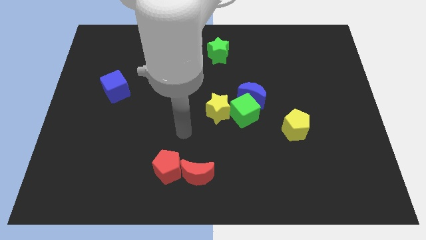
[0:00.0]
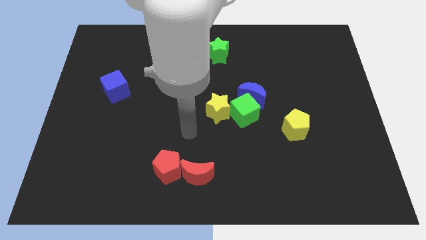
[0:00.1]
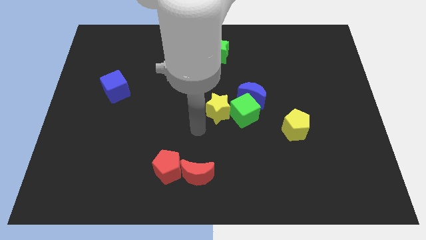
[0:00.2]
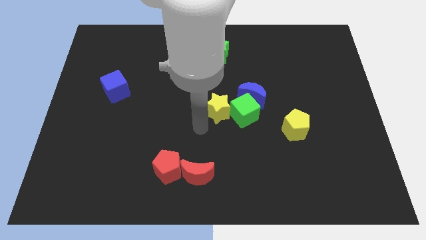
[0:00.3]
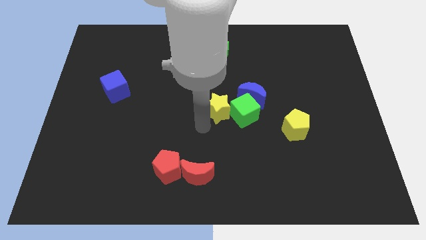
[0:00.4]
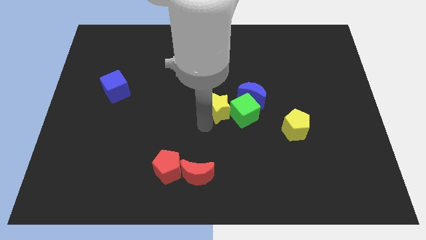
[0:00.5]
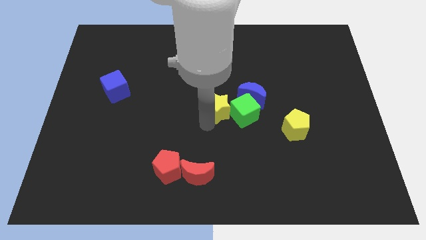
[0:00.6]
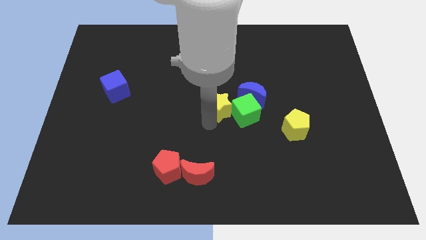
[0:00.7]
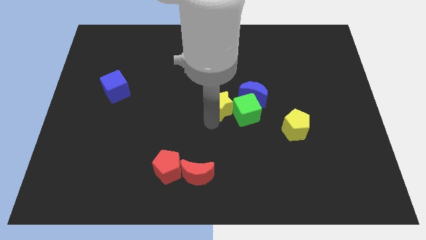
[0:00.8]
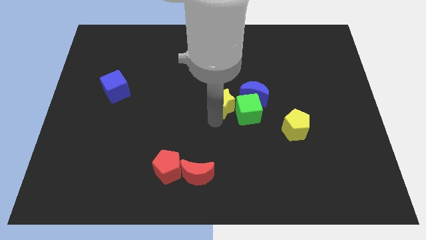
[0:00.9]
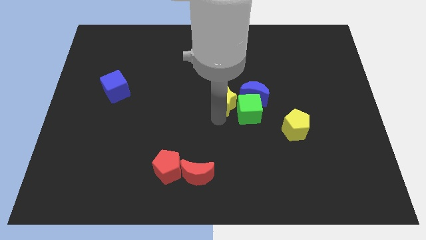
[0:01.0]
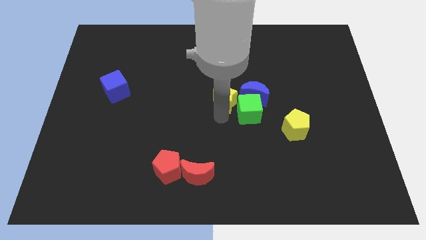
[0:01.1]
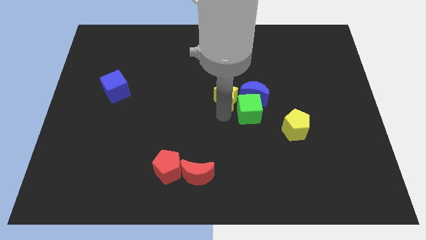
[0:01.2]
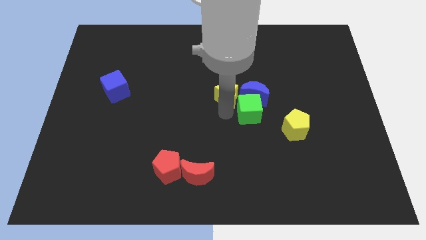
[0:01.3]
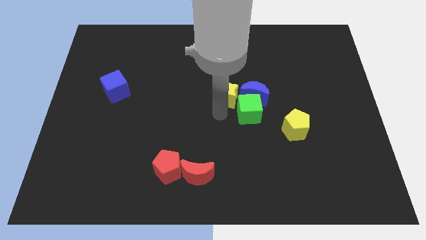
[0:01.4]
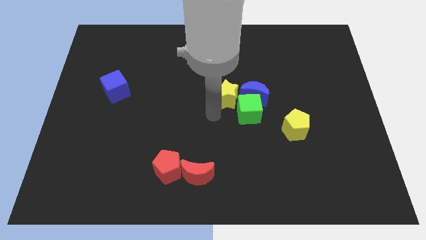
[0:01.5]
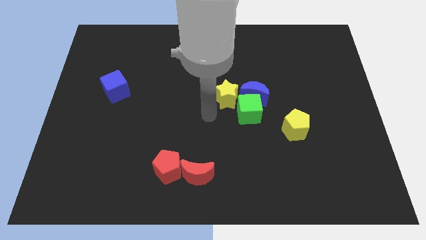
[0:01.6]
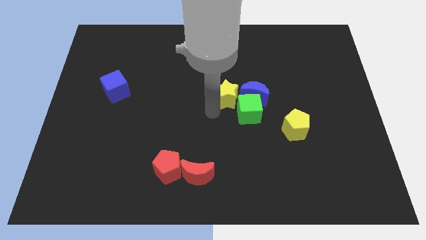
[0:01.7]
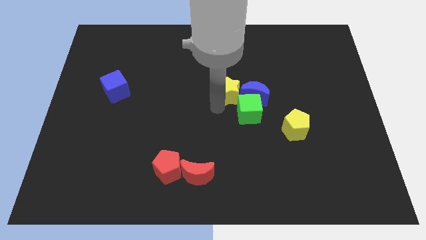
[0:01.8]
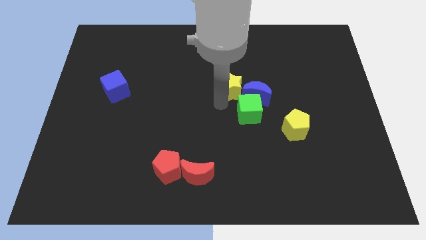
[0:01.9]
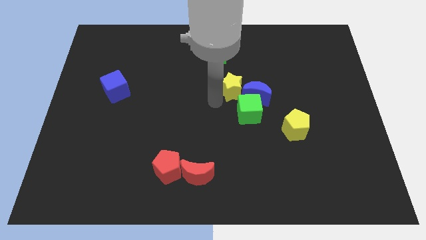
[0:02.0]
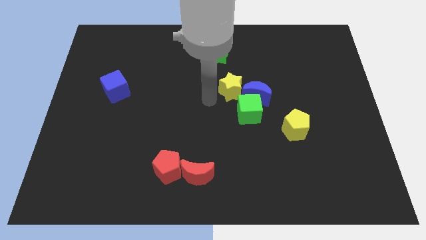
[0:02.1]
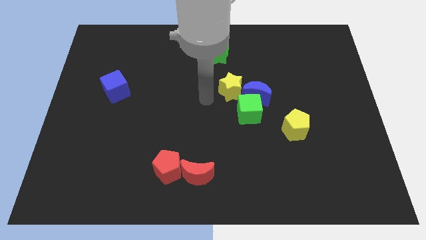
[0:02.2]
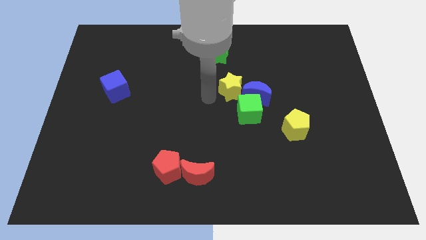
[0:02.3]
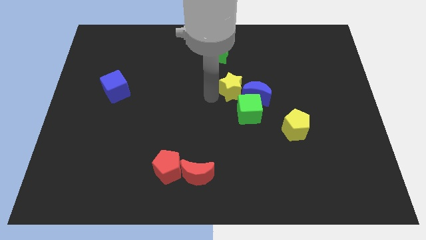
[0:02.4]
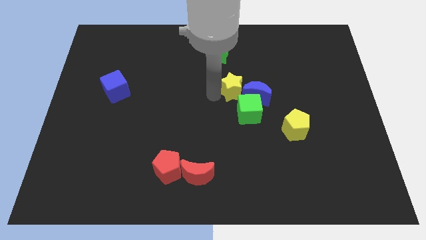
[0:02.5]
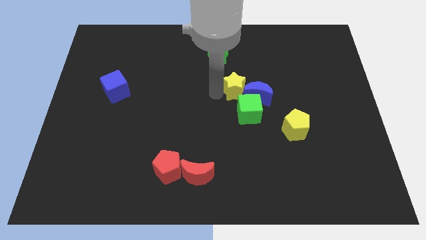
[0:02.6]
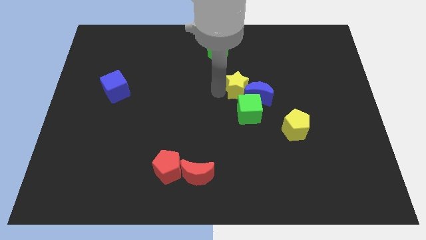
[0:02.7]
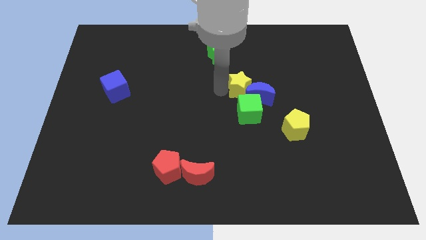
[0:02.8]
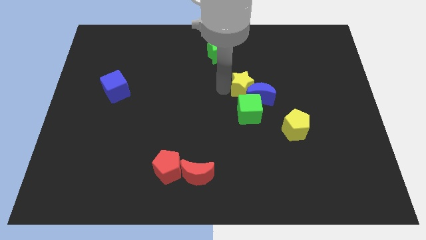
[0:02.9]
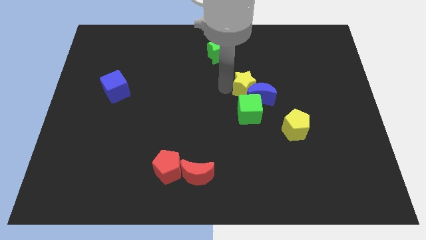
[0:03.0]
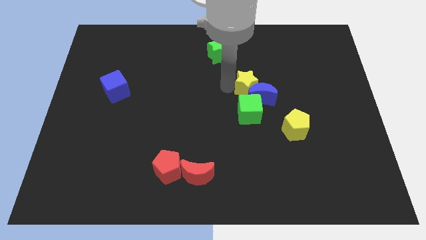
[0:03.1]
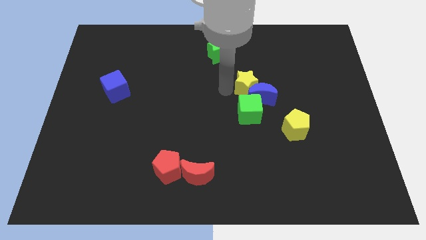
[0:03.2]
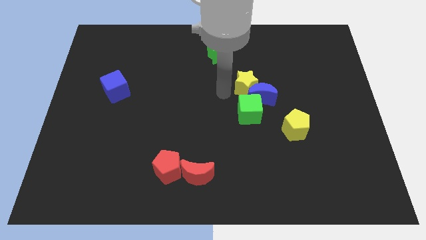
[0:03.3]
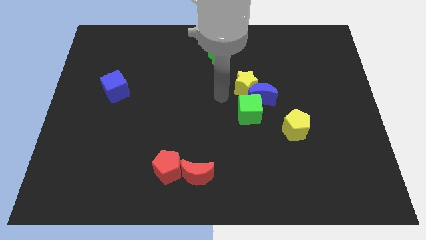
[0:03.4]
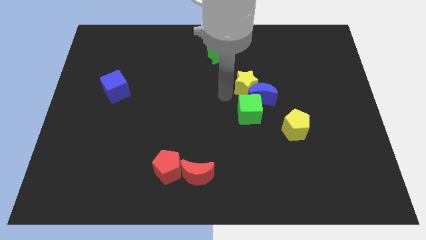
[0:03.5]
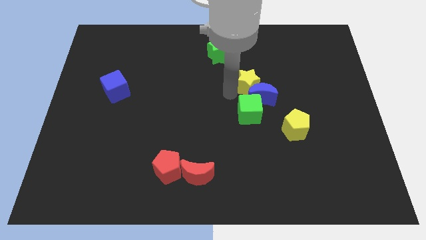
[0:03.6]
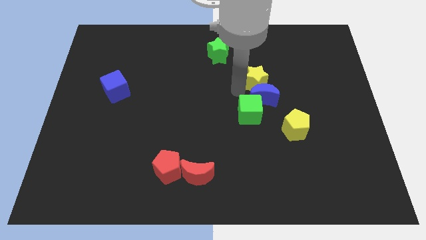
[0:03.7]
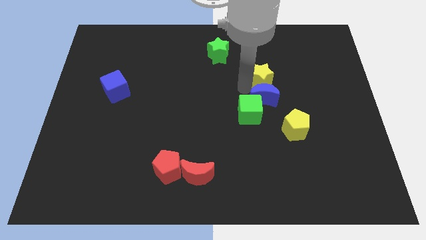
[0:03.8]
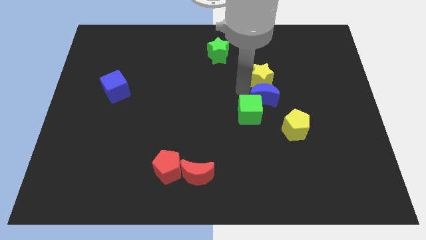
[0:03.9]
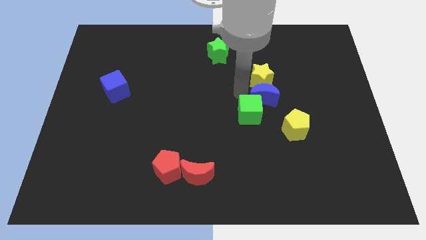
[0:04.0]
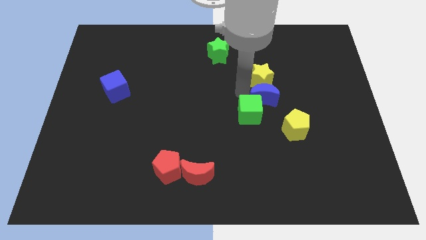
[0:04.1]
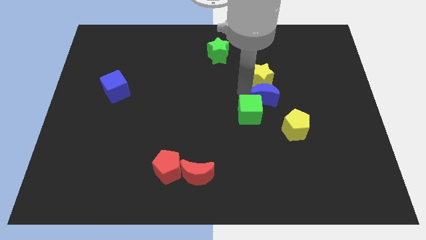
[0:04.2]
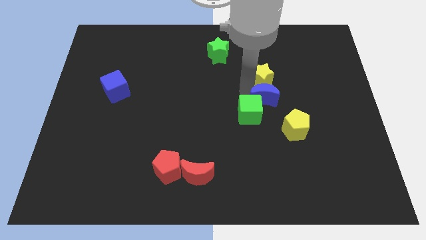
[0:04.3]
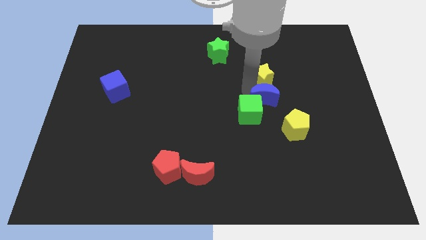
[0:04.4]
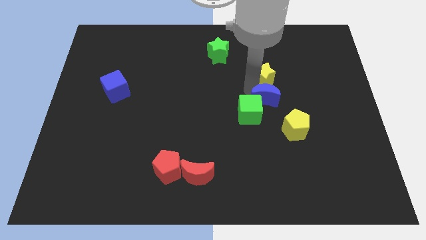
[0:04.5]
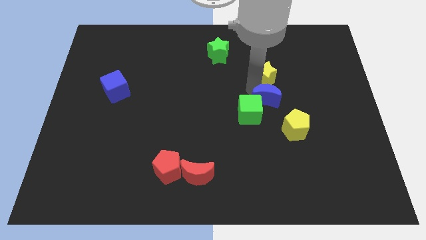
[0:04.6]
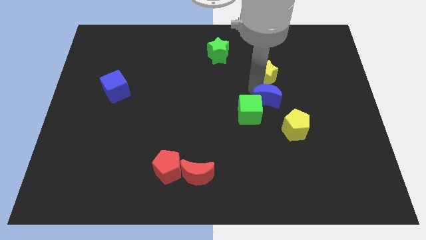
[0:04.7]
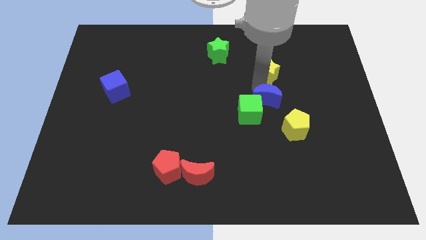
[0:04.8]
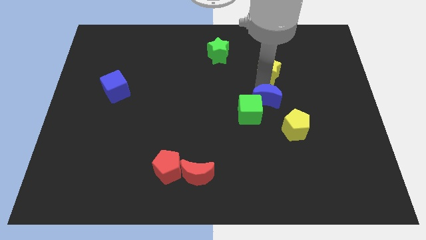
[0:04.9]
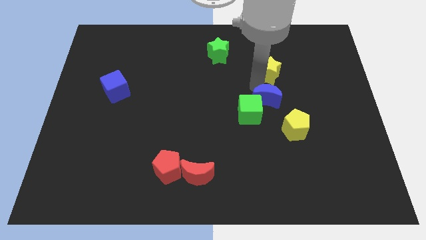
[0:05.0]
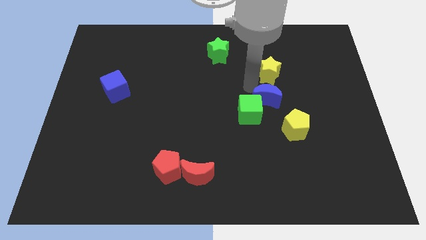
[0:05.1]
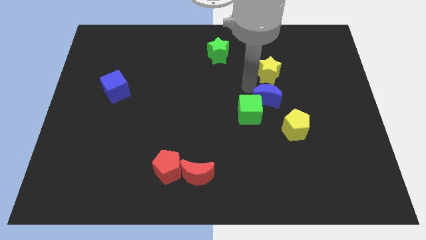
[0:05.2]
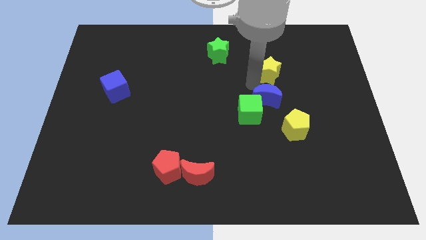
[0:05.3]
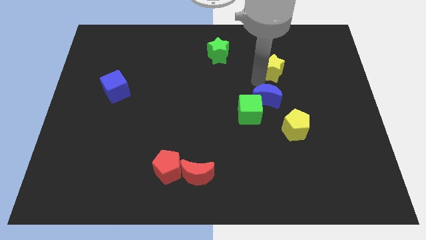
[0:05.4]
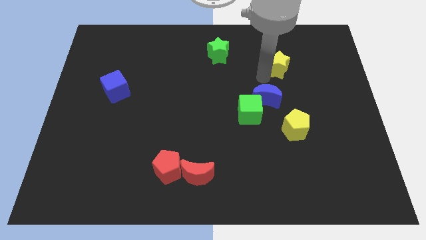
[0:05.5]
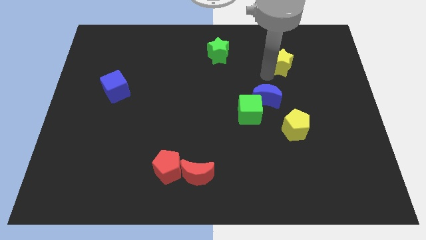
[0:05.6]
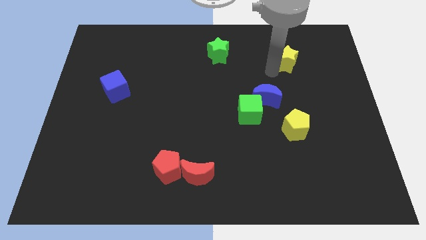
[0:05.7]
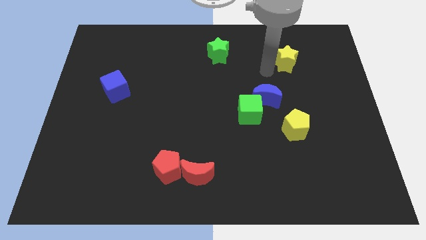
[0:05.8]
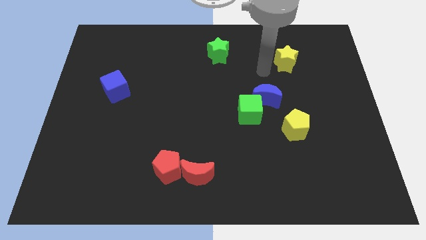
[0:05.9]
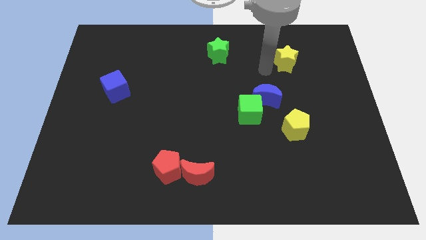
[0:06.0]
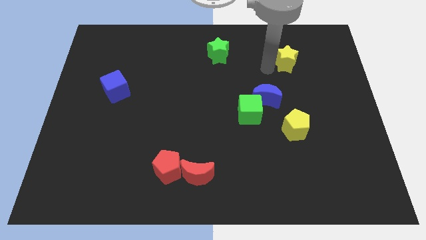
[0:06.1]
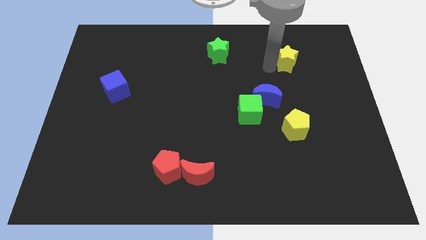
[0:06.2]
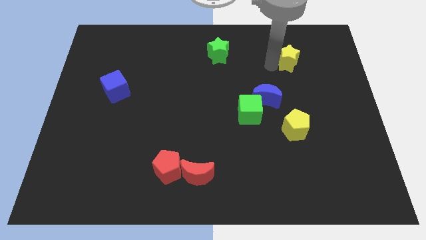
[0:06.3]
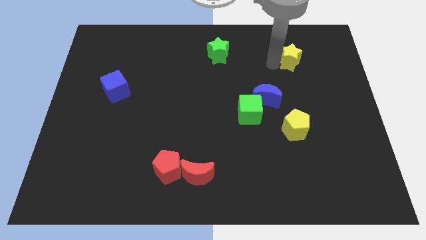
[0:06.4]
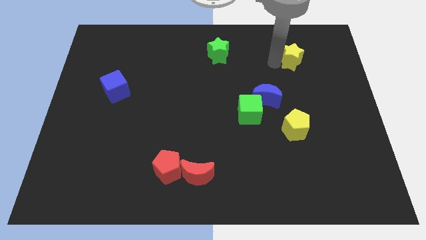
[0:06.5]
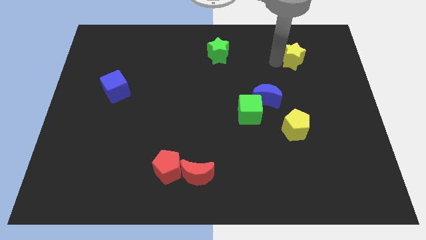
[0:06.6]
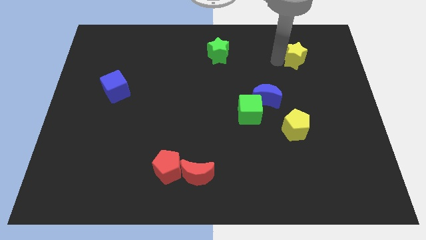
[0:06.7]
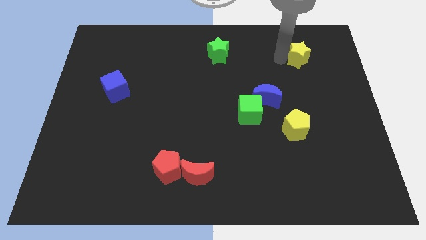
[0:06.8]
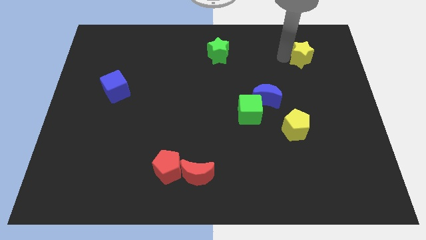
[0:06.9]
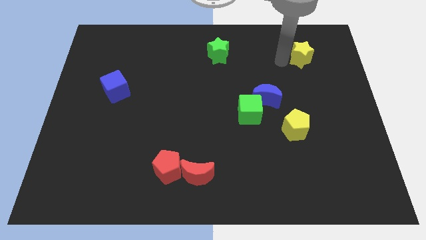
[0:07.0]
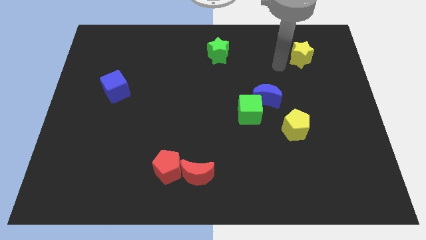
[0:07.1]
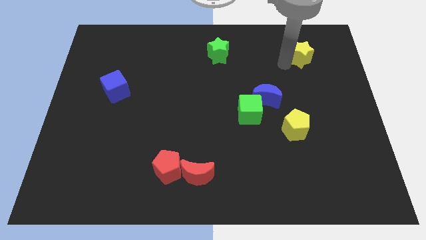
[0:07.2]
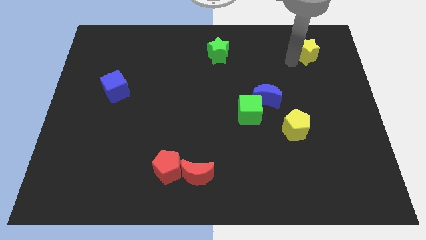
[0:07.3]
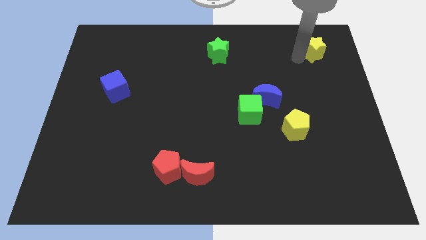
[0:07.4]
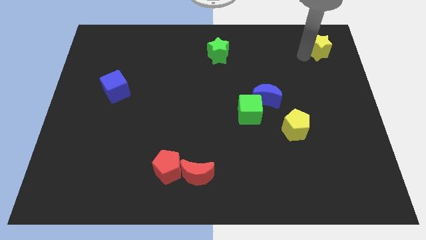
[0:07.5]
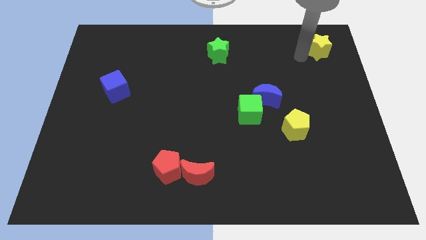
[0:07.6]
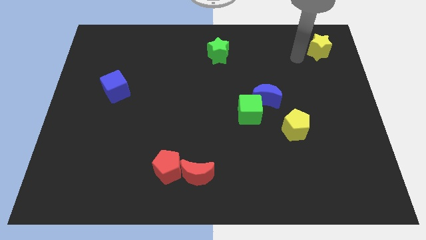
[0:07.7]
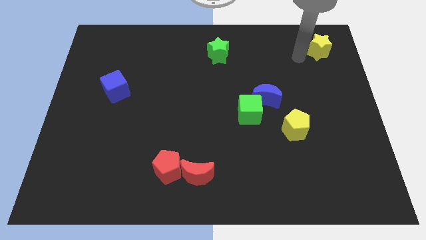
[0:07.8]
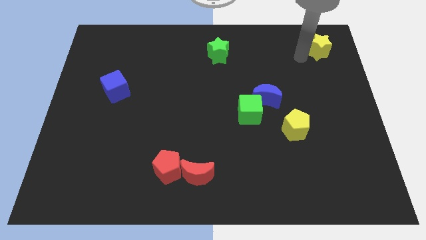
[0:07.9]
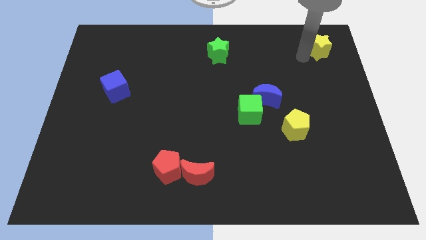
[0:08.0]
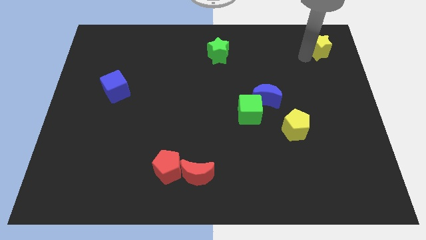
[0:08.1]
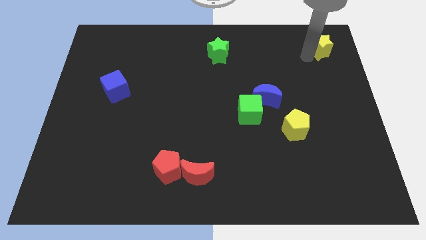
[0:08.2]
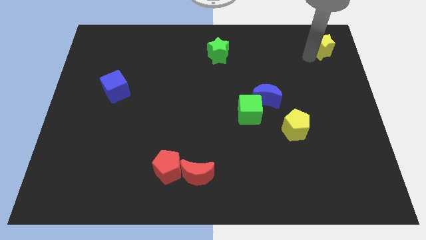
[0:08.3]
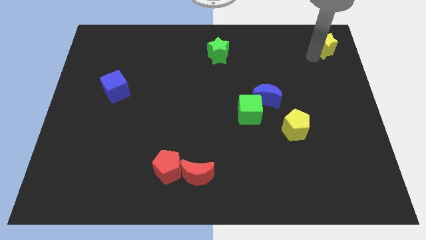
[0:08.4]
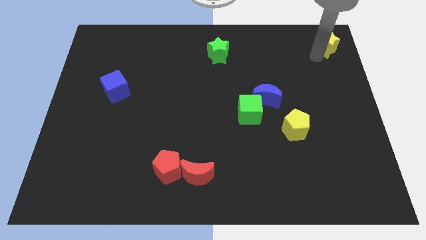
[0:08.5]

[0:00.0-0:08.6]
slide the yellow star to the upper right corner
